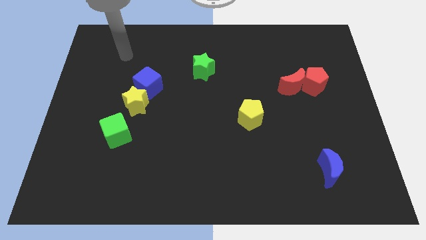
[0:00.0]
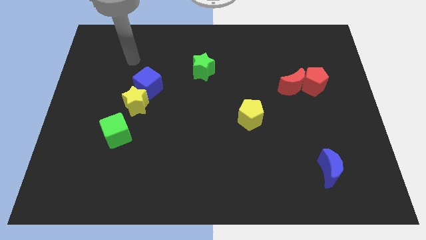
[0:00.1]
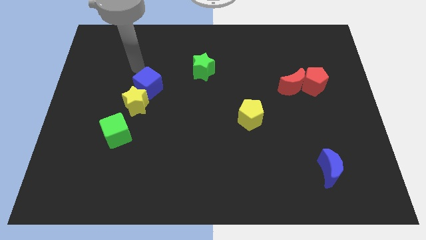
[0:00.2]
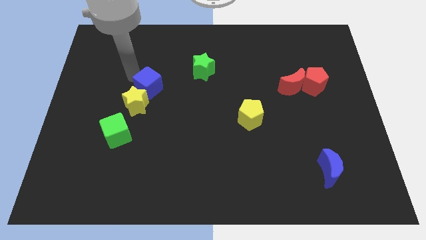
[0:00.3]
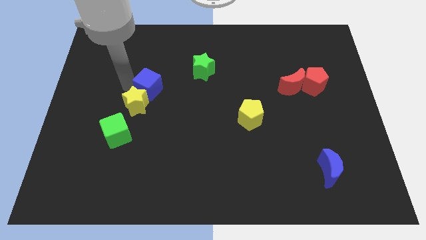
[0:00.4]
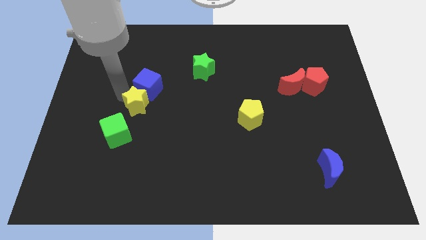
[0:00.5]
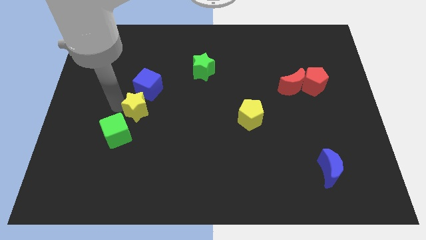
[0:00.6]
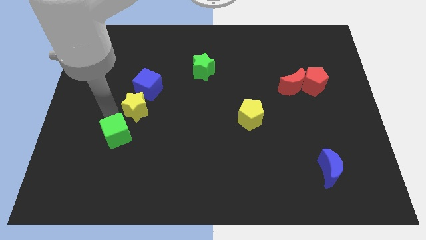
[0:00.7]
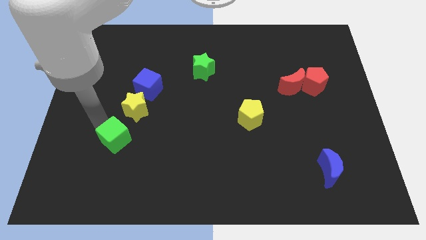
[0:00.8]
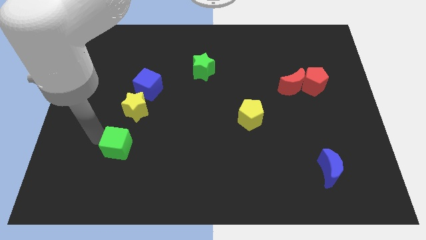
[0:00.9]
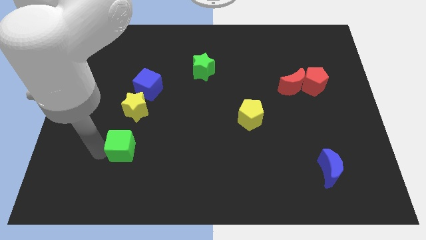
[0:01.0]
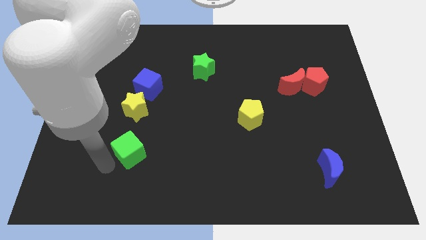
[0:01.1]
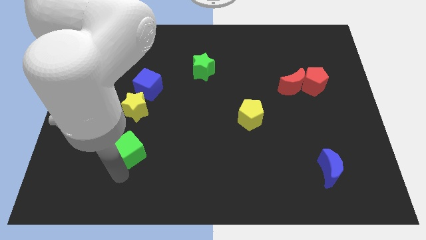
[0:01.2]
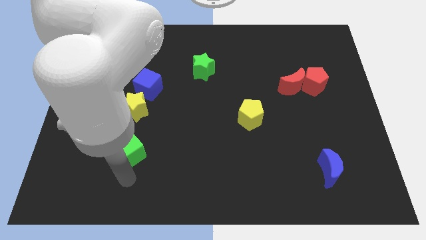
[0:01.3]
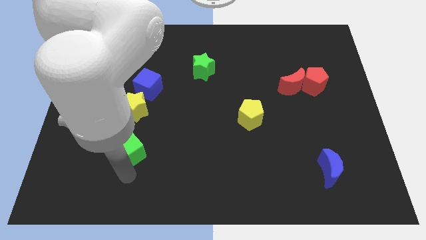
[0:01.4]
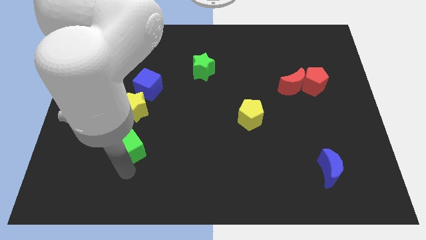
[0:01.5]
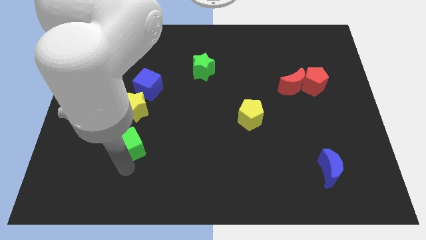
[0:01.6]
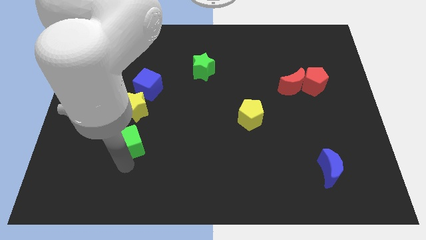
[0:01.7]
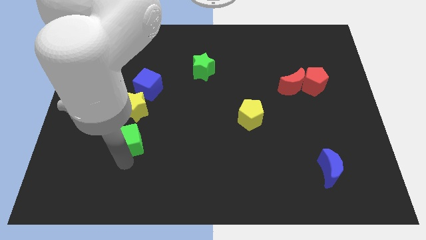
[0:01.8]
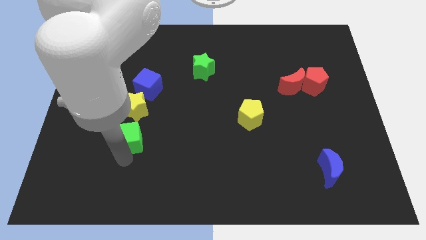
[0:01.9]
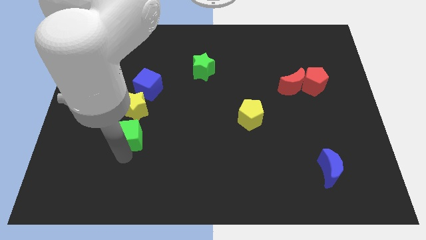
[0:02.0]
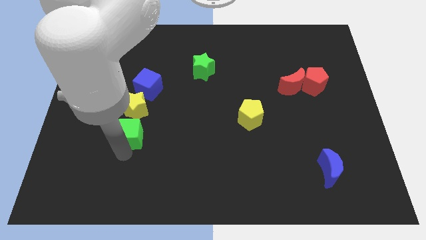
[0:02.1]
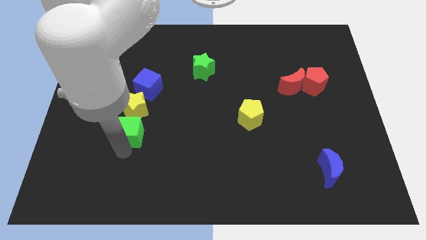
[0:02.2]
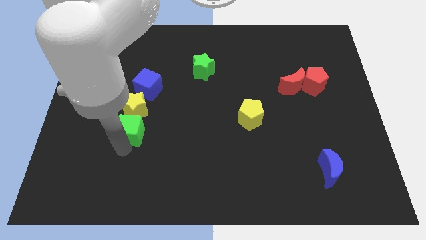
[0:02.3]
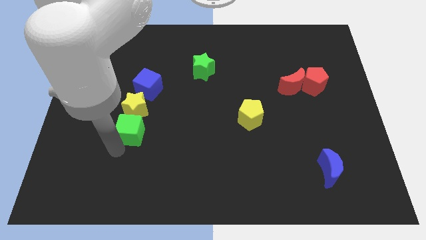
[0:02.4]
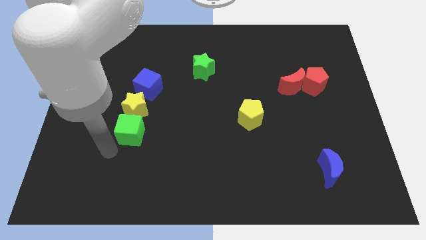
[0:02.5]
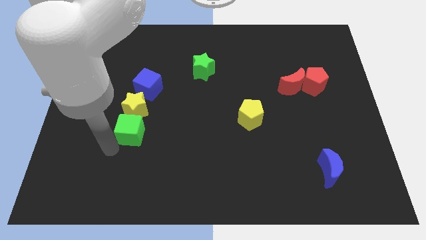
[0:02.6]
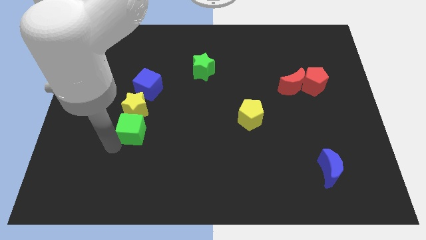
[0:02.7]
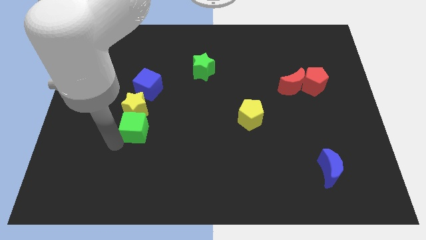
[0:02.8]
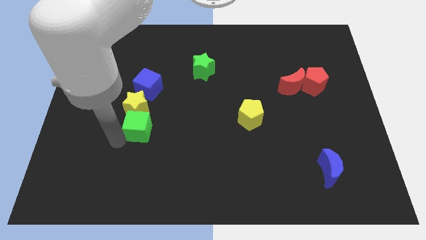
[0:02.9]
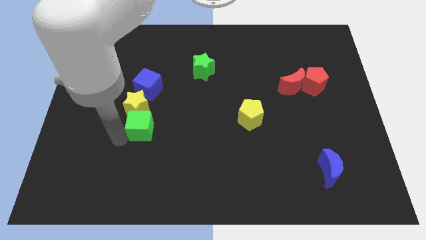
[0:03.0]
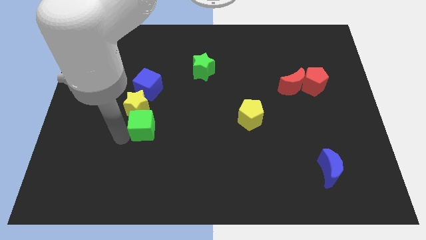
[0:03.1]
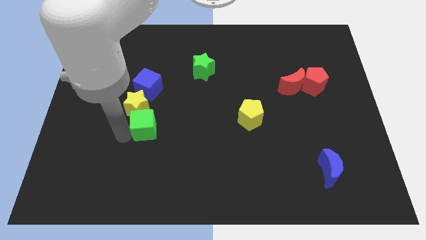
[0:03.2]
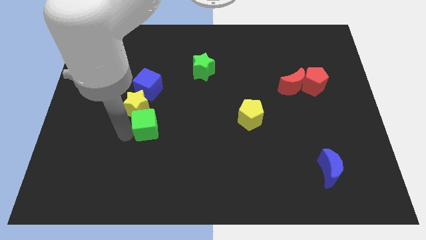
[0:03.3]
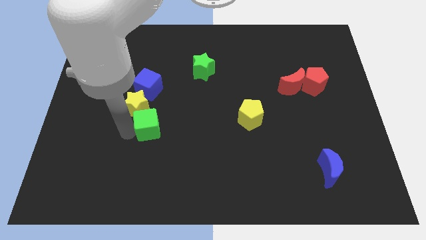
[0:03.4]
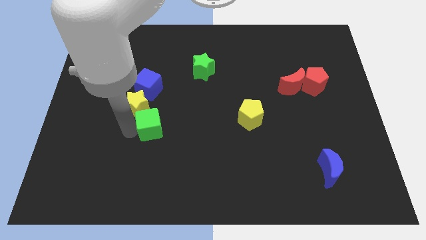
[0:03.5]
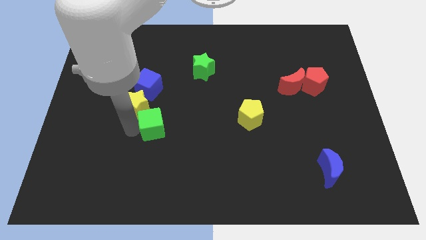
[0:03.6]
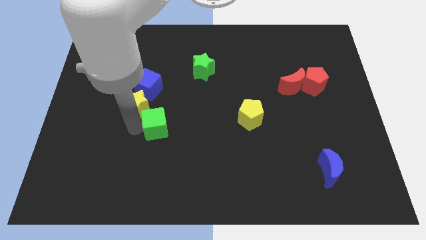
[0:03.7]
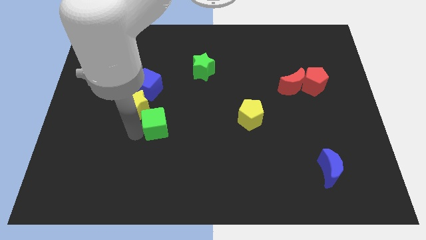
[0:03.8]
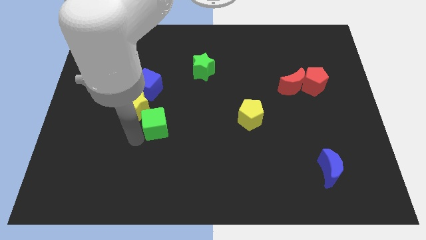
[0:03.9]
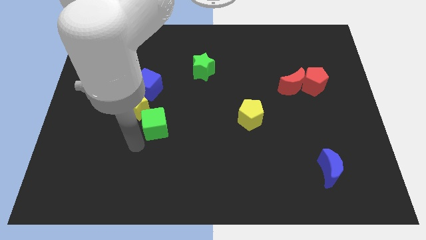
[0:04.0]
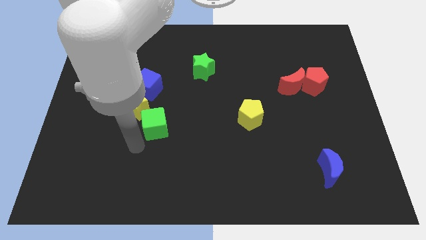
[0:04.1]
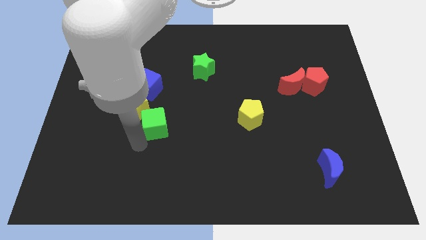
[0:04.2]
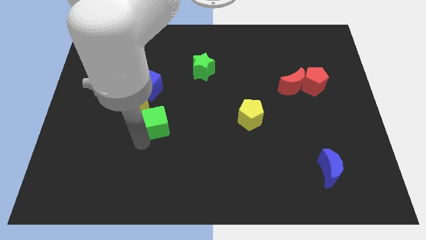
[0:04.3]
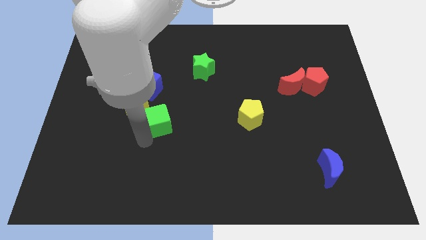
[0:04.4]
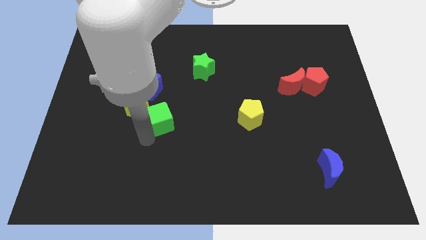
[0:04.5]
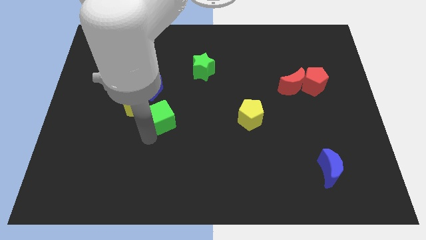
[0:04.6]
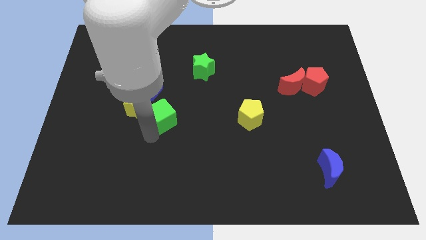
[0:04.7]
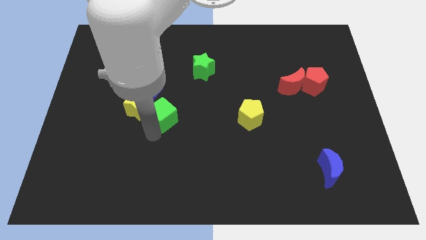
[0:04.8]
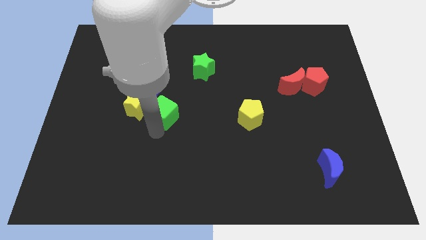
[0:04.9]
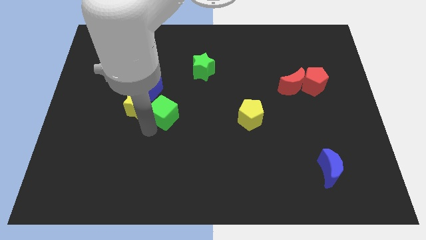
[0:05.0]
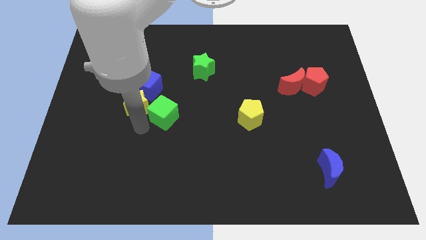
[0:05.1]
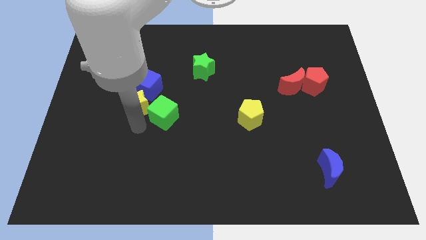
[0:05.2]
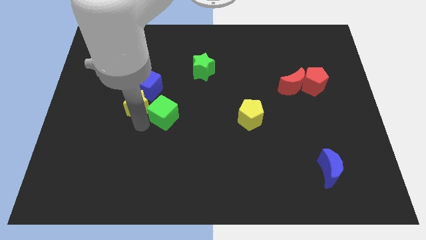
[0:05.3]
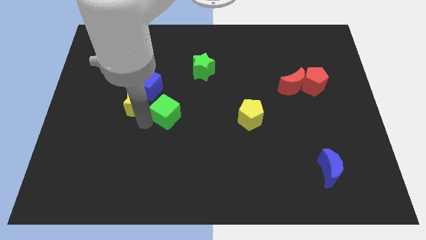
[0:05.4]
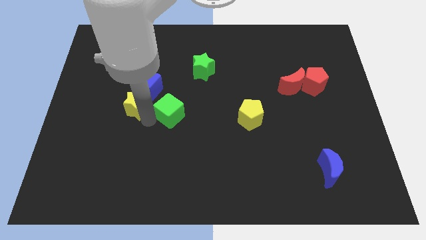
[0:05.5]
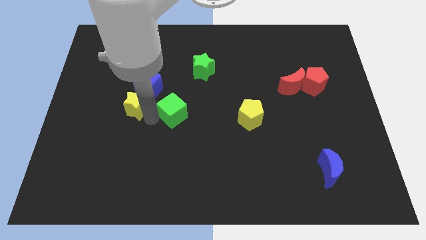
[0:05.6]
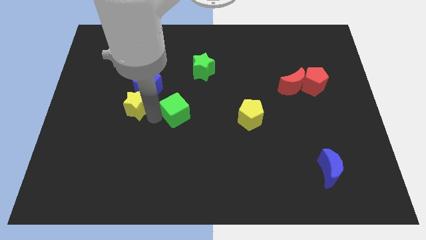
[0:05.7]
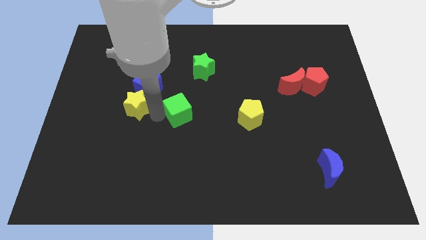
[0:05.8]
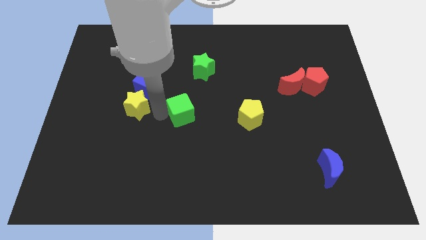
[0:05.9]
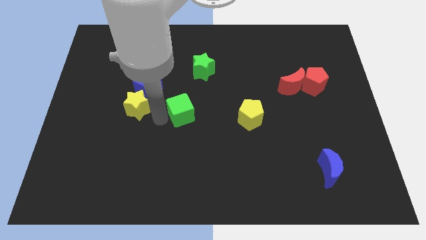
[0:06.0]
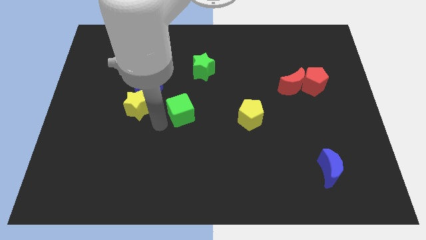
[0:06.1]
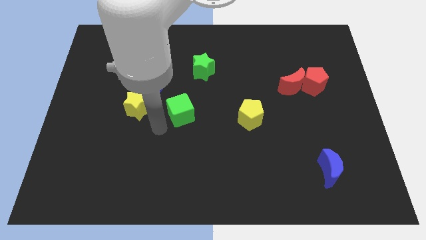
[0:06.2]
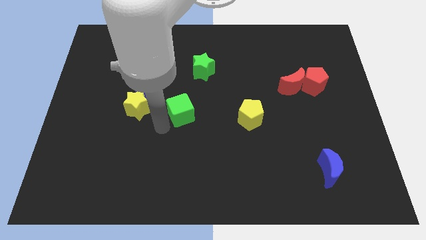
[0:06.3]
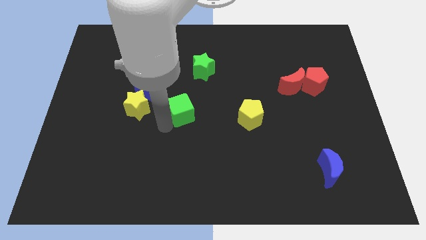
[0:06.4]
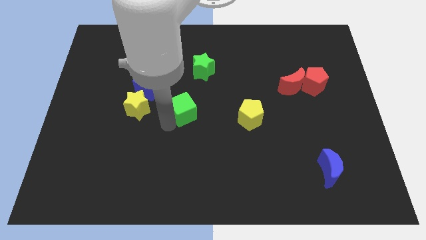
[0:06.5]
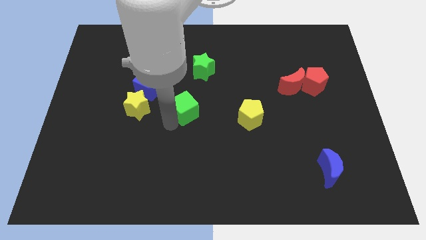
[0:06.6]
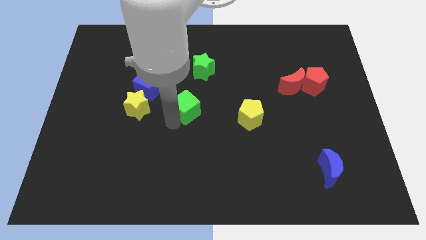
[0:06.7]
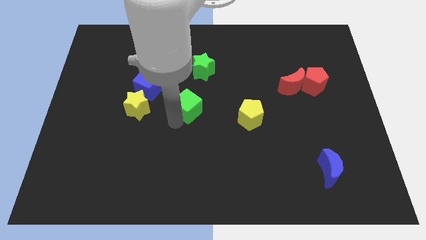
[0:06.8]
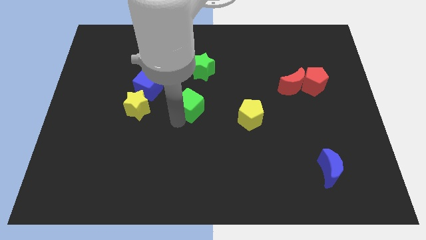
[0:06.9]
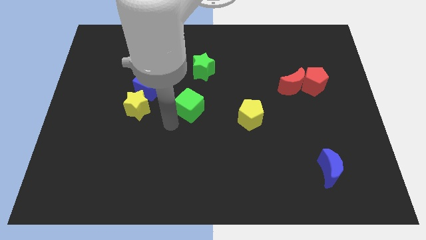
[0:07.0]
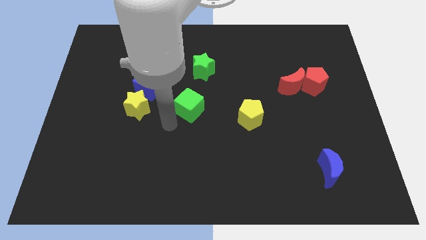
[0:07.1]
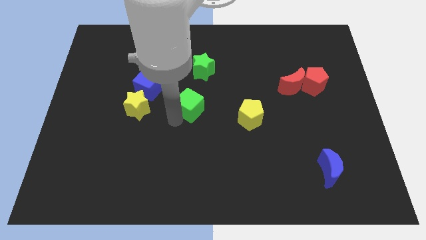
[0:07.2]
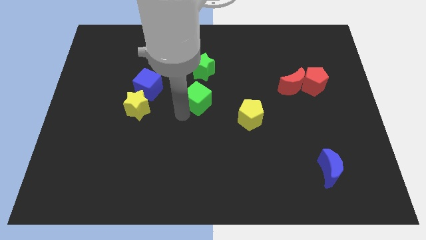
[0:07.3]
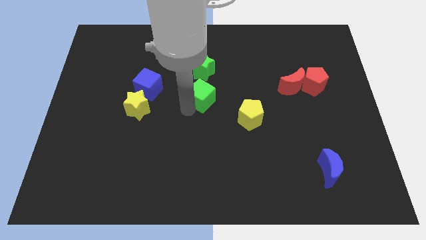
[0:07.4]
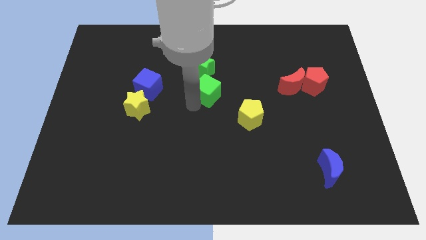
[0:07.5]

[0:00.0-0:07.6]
move the green cube diagonally up and right

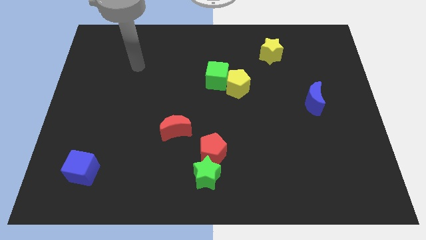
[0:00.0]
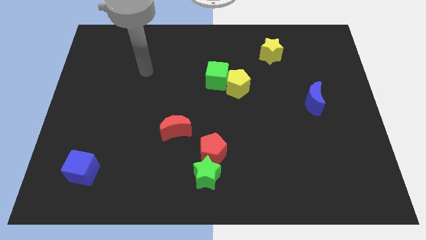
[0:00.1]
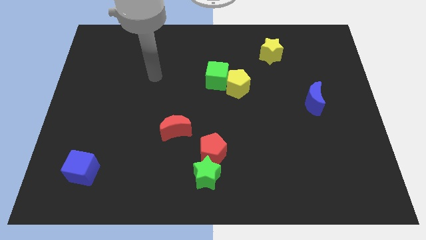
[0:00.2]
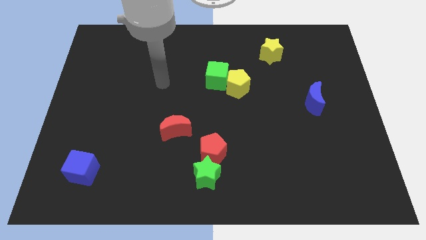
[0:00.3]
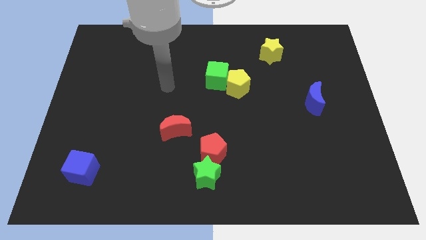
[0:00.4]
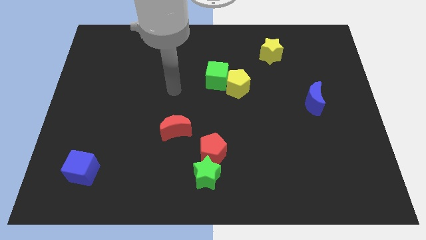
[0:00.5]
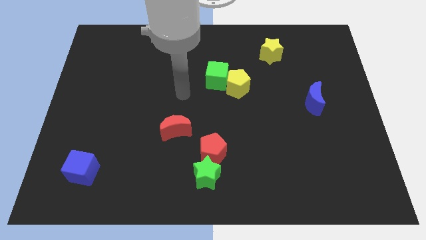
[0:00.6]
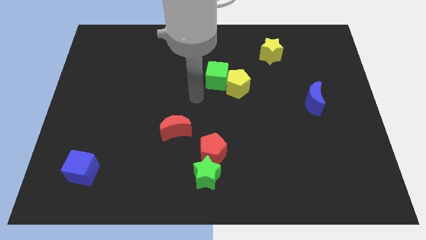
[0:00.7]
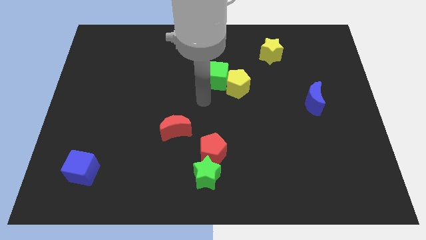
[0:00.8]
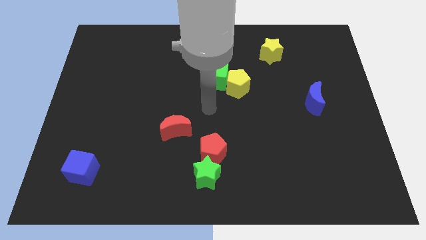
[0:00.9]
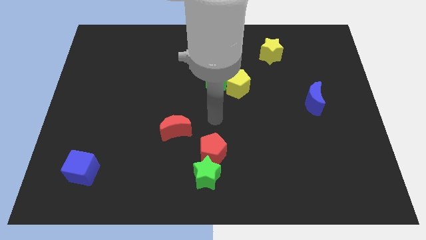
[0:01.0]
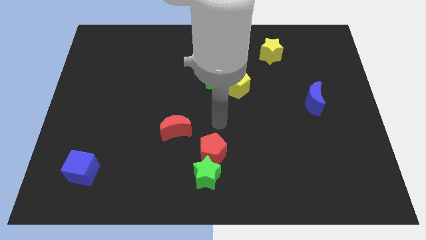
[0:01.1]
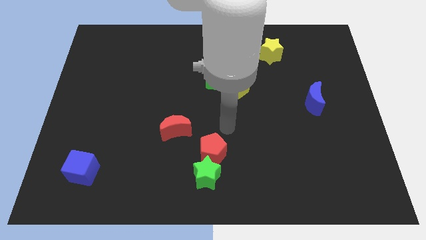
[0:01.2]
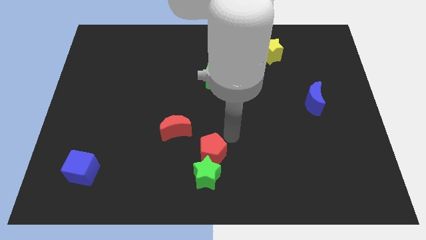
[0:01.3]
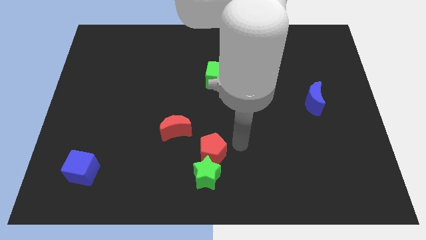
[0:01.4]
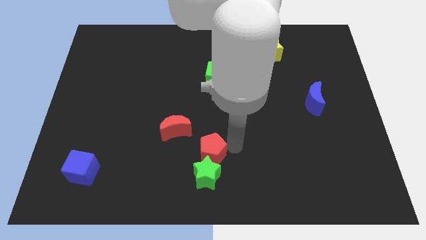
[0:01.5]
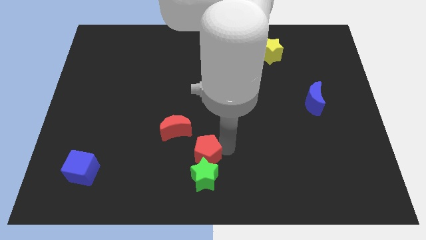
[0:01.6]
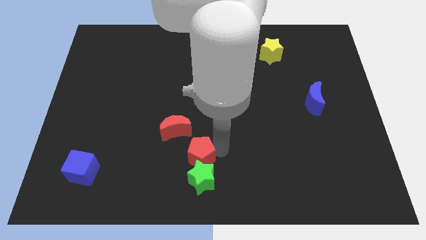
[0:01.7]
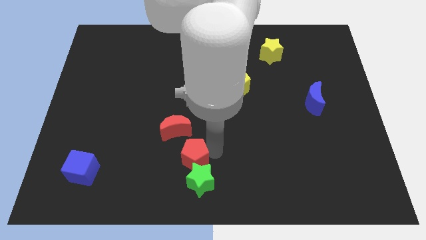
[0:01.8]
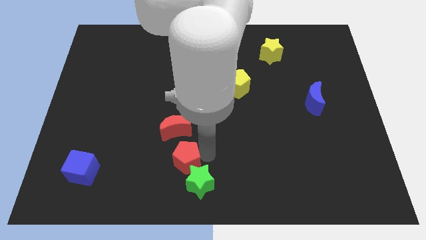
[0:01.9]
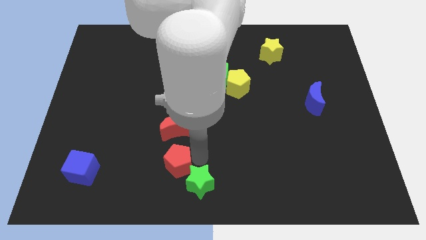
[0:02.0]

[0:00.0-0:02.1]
slide the red pentagon left a little
